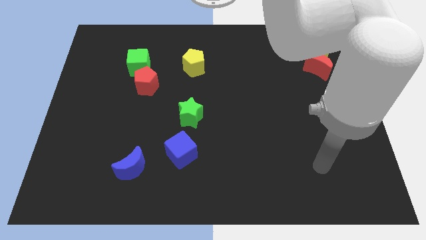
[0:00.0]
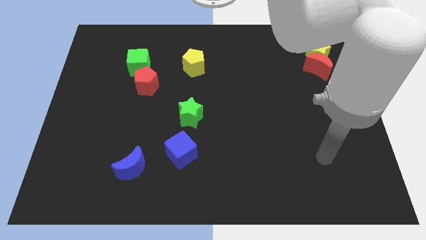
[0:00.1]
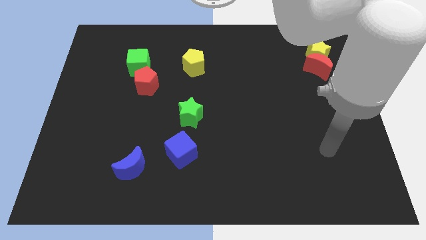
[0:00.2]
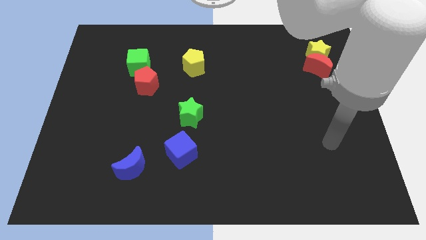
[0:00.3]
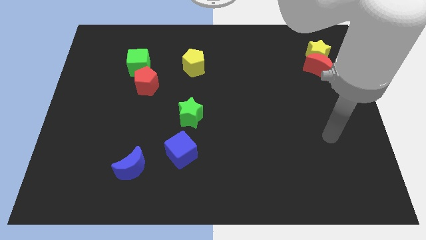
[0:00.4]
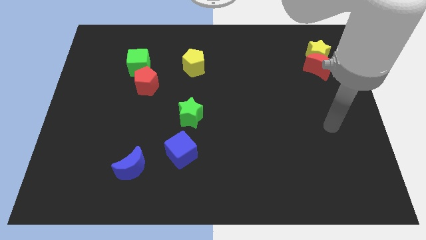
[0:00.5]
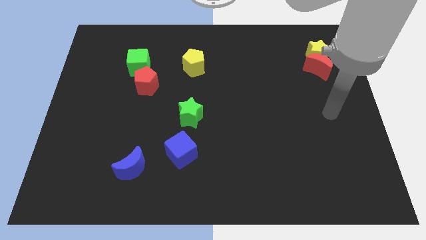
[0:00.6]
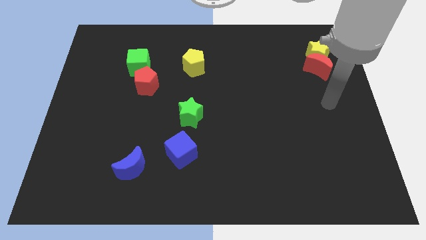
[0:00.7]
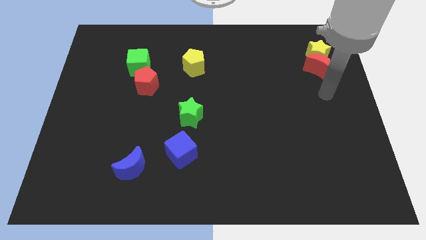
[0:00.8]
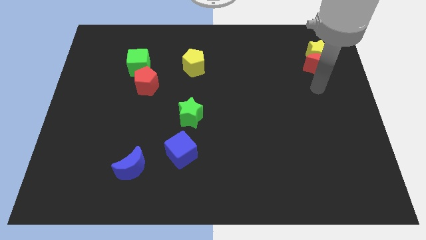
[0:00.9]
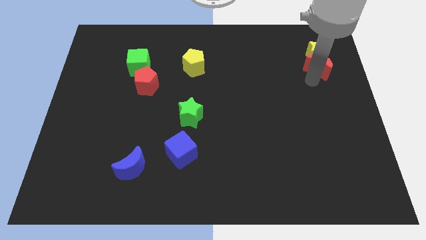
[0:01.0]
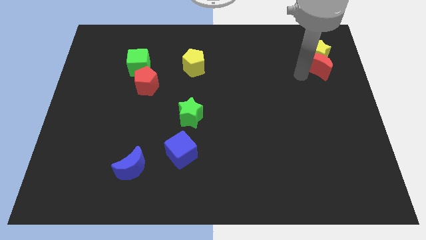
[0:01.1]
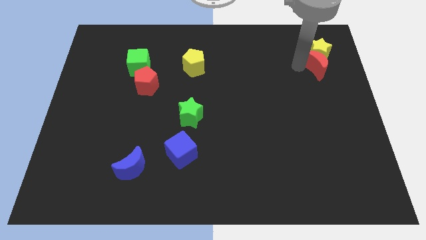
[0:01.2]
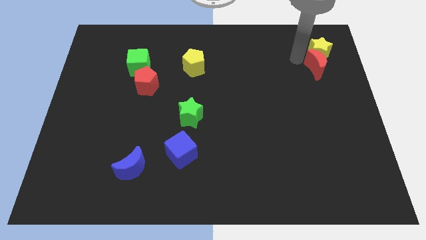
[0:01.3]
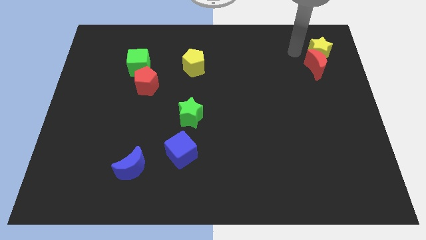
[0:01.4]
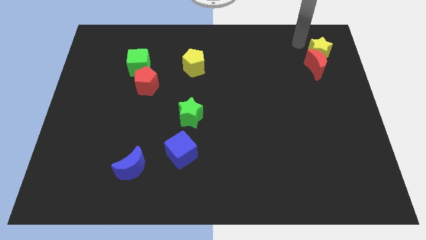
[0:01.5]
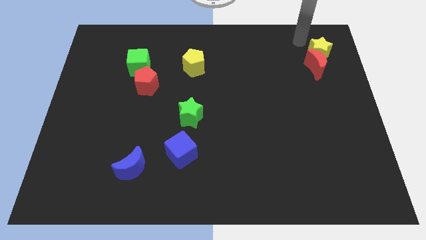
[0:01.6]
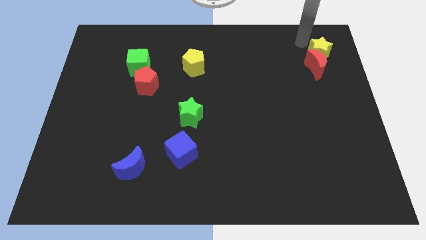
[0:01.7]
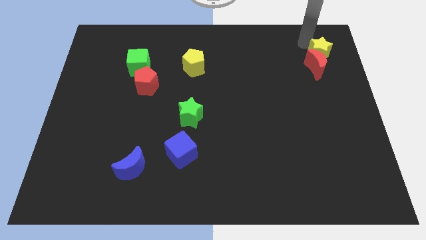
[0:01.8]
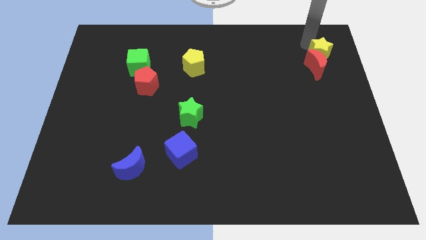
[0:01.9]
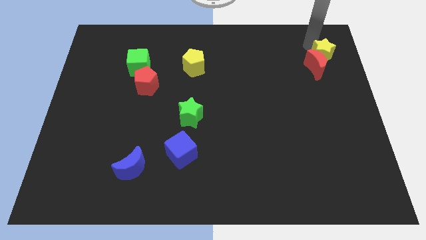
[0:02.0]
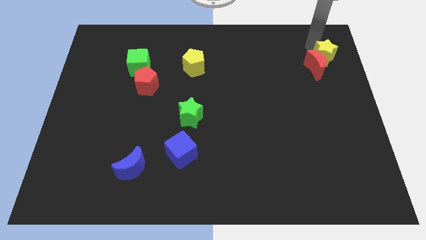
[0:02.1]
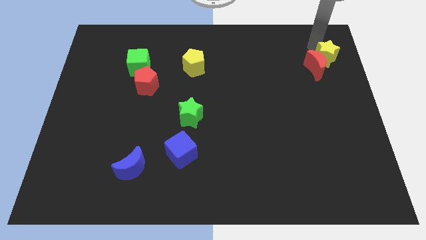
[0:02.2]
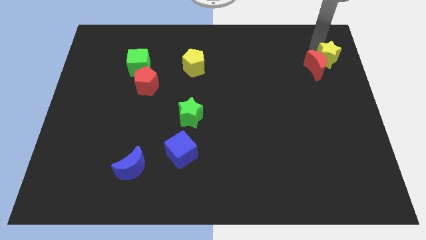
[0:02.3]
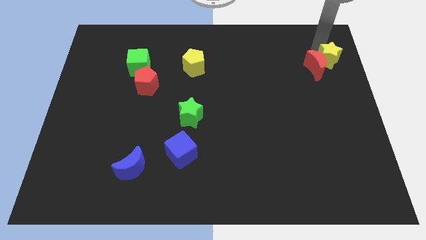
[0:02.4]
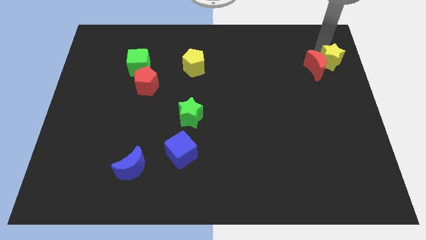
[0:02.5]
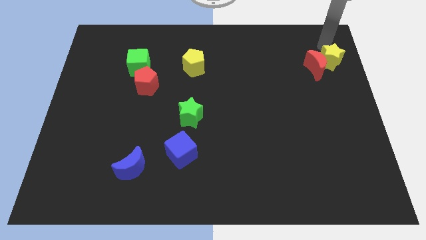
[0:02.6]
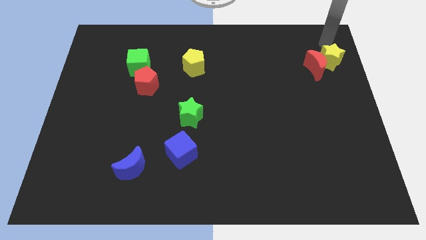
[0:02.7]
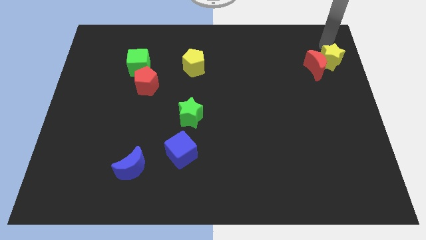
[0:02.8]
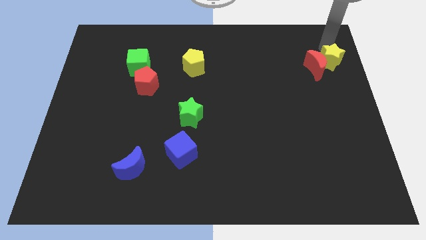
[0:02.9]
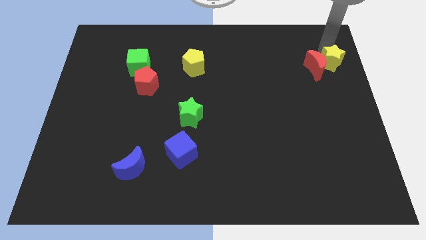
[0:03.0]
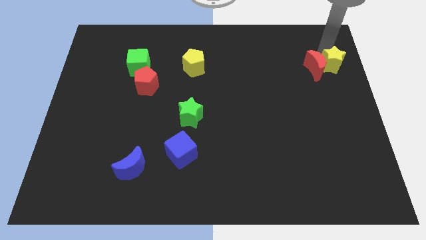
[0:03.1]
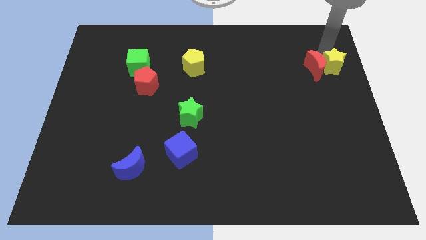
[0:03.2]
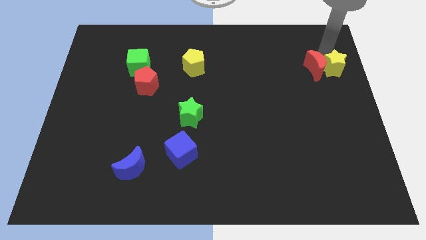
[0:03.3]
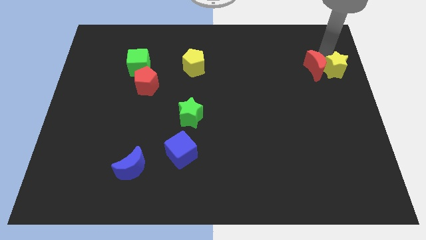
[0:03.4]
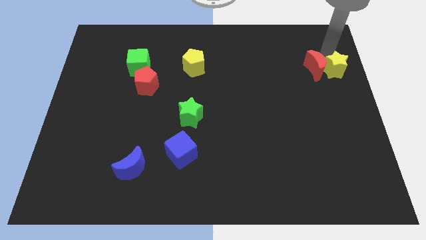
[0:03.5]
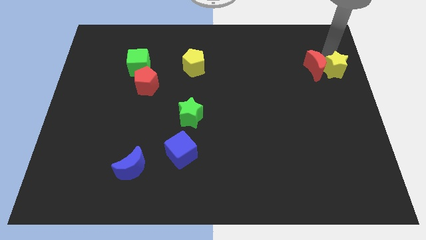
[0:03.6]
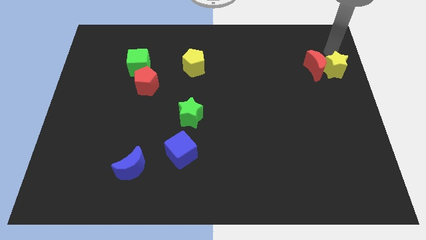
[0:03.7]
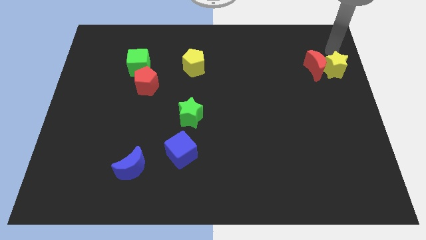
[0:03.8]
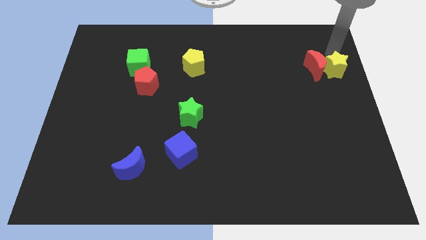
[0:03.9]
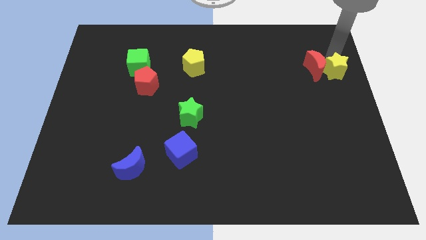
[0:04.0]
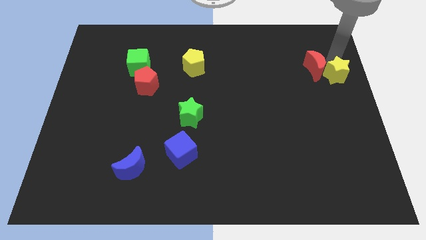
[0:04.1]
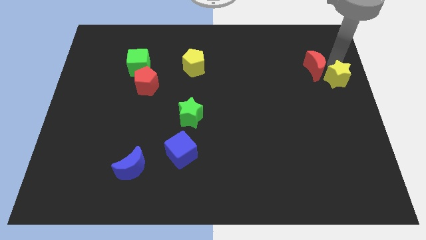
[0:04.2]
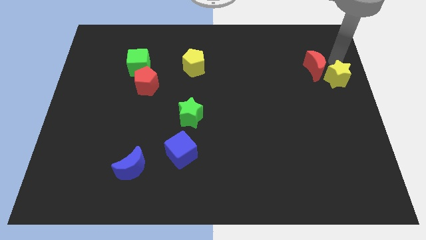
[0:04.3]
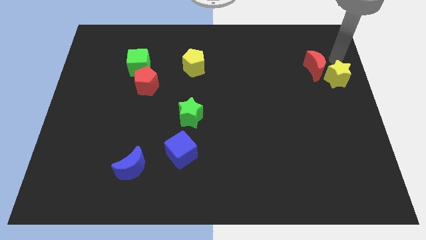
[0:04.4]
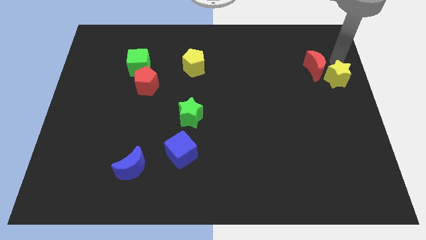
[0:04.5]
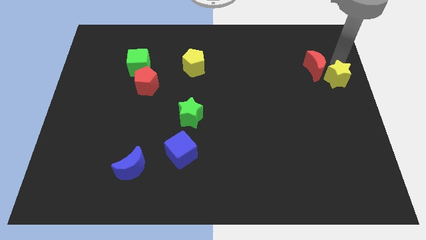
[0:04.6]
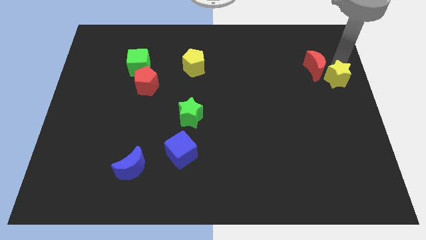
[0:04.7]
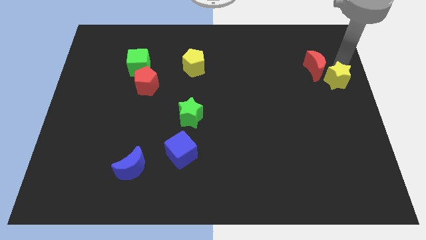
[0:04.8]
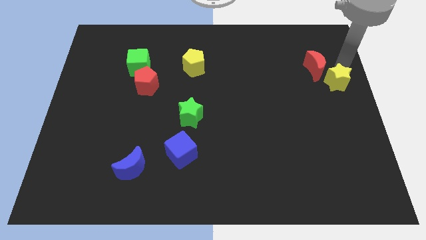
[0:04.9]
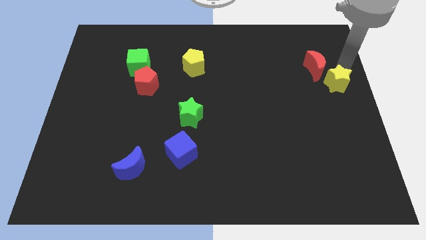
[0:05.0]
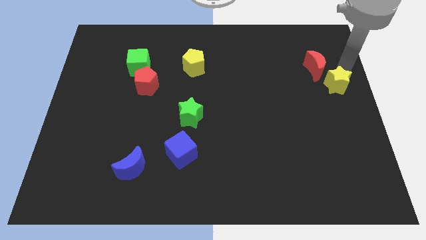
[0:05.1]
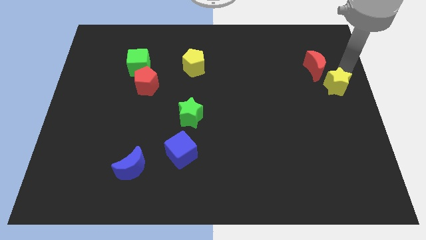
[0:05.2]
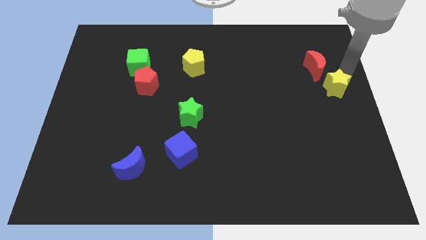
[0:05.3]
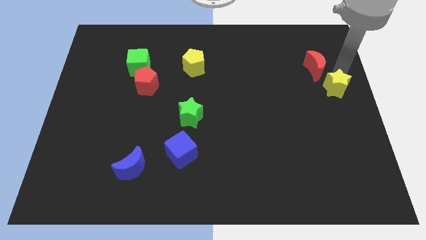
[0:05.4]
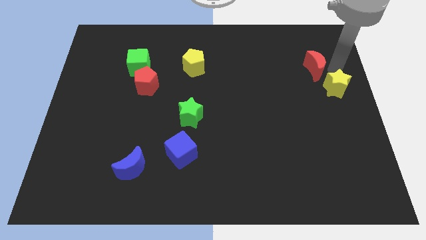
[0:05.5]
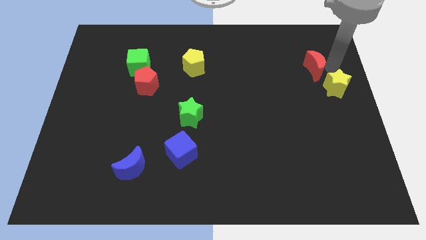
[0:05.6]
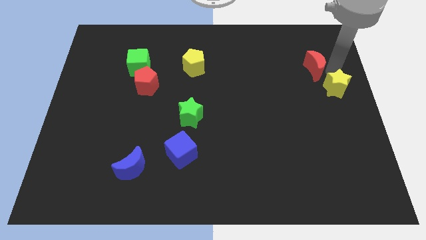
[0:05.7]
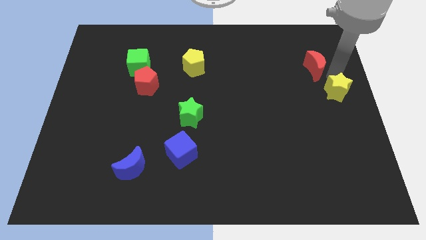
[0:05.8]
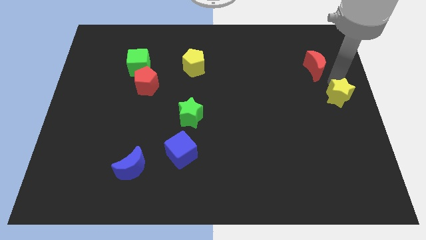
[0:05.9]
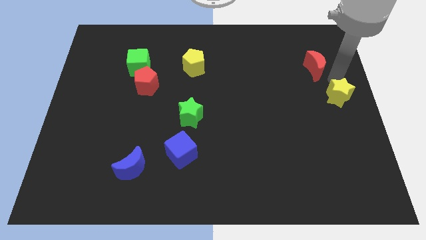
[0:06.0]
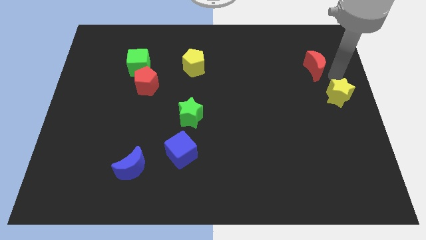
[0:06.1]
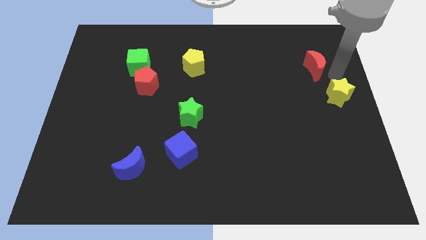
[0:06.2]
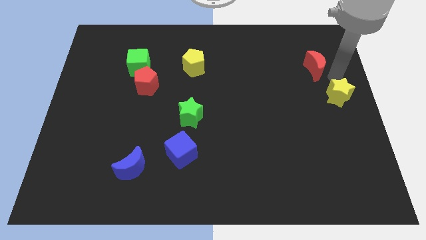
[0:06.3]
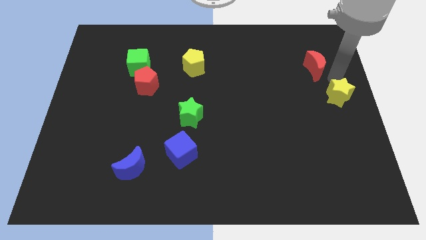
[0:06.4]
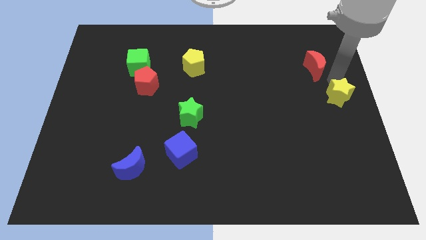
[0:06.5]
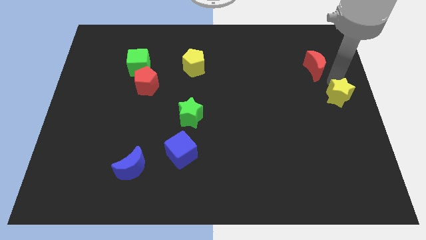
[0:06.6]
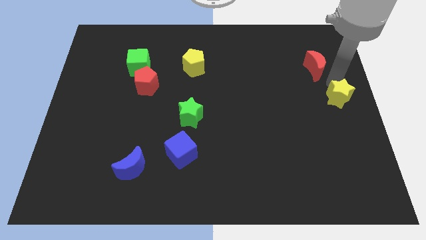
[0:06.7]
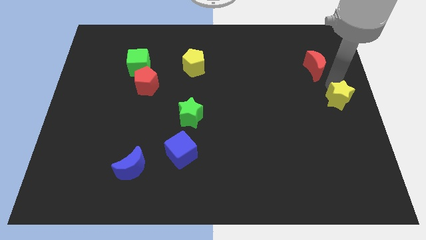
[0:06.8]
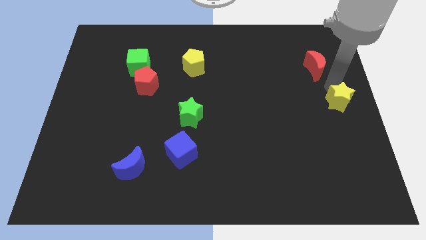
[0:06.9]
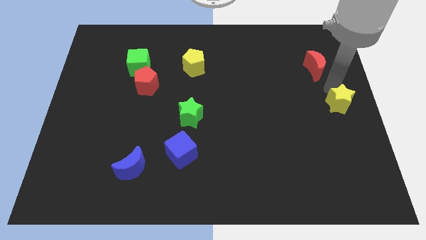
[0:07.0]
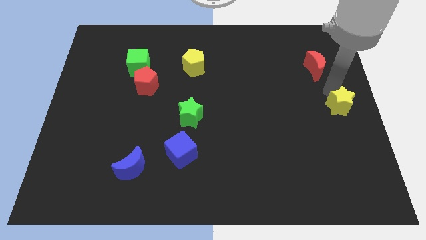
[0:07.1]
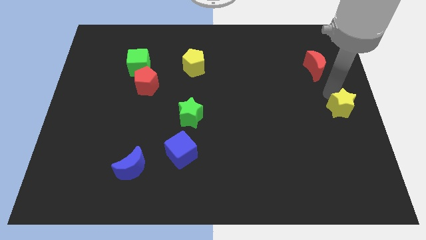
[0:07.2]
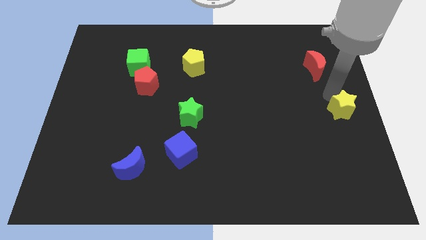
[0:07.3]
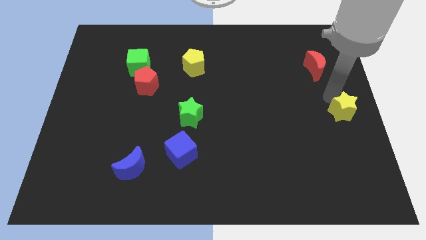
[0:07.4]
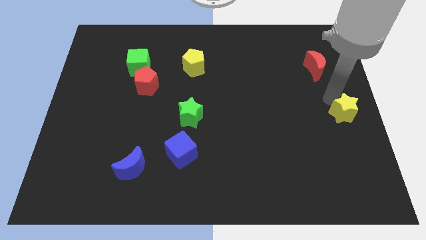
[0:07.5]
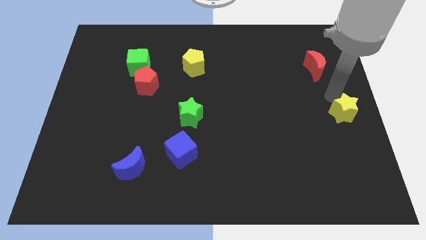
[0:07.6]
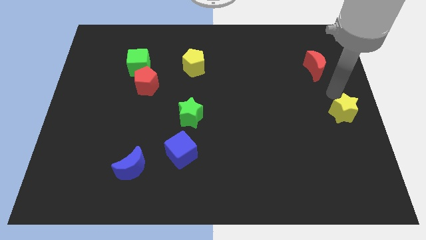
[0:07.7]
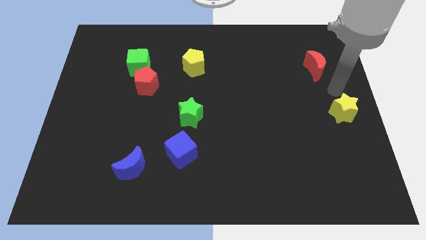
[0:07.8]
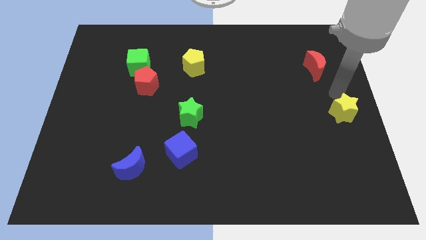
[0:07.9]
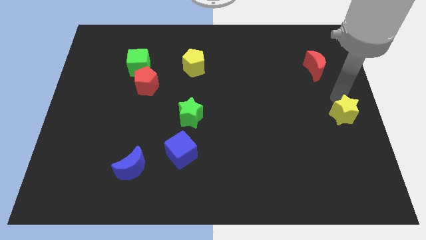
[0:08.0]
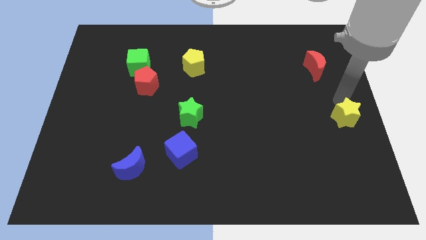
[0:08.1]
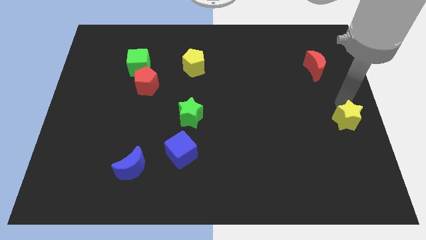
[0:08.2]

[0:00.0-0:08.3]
move the yellow star downwards
